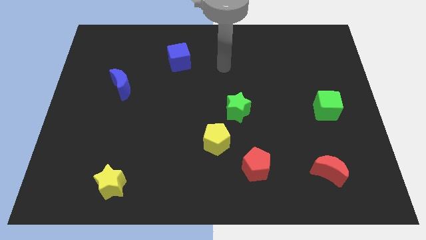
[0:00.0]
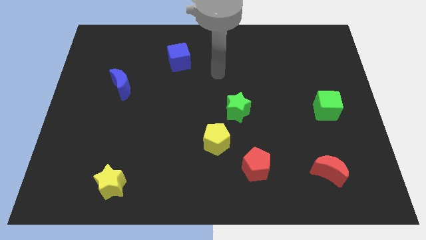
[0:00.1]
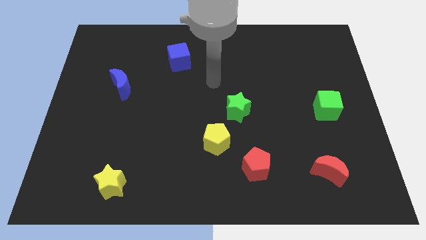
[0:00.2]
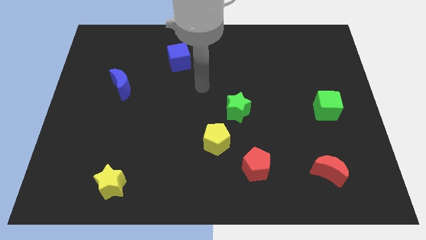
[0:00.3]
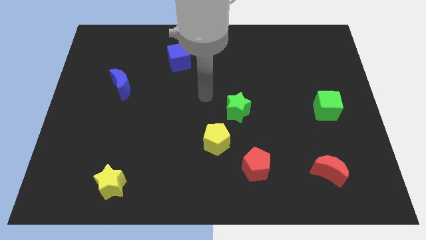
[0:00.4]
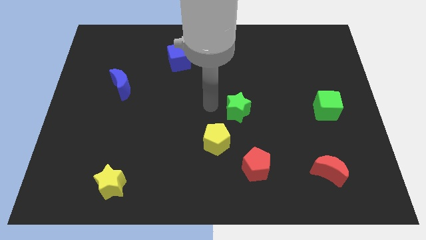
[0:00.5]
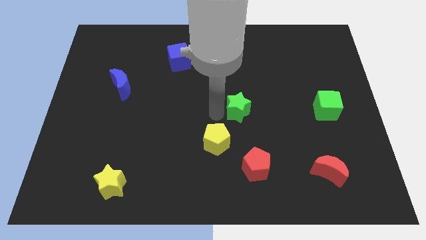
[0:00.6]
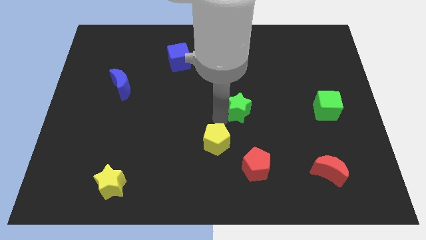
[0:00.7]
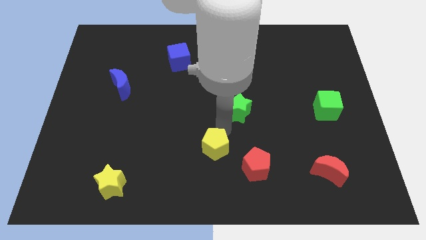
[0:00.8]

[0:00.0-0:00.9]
separate the green star from the yellow pentagon

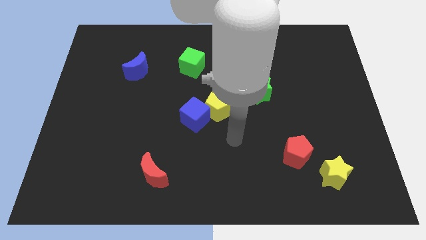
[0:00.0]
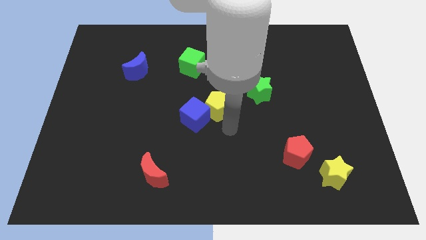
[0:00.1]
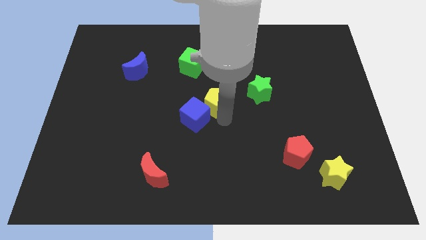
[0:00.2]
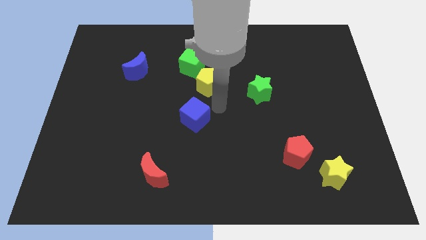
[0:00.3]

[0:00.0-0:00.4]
pull the blue cube apart from the yellow pentagon

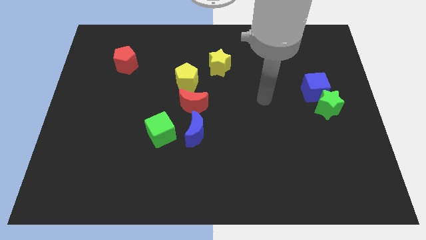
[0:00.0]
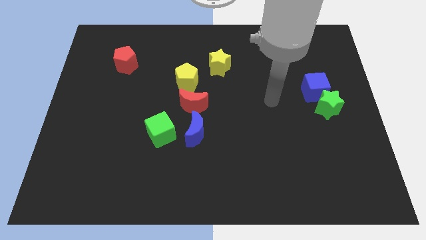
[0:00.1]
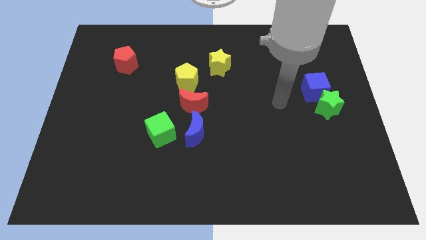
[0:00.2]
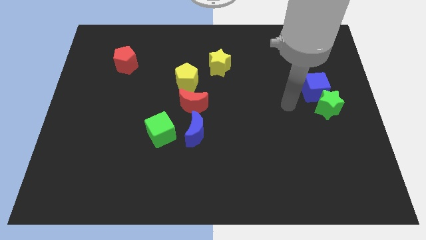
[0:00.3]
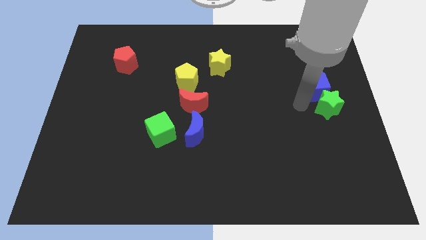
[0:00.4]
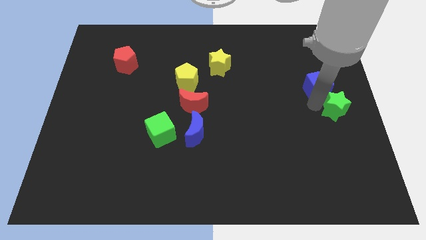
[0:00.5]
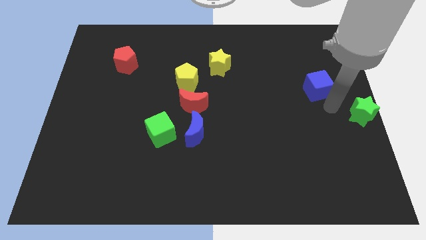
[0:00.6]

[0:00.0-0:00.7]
pull the blue cube apart from the green star

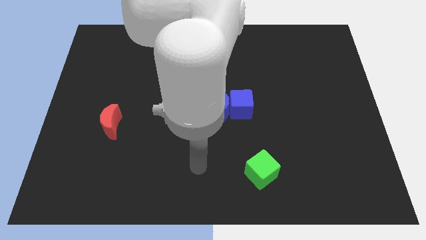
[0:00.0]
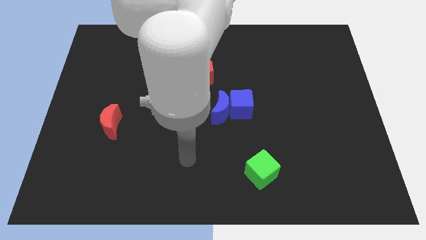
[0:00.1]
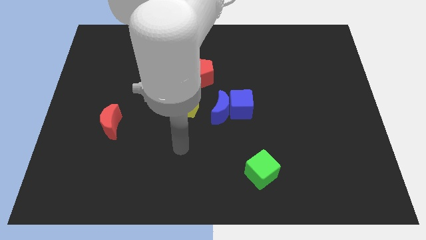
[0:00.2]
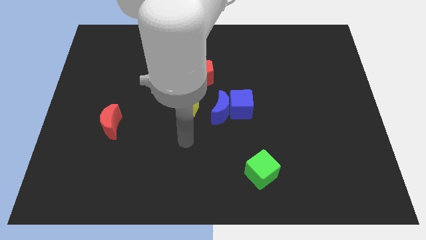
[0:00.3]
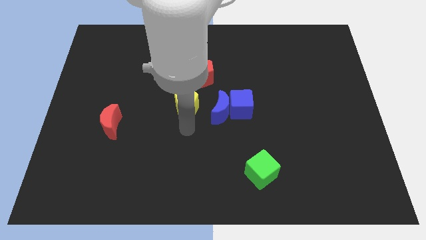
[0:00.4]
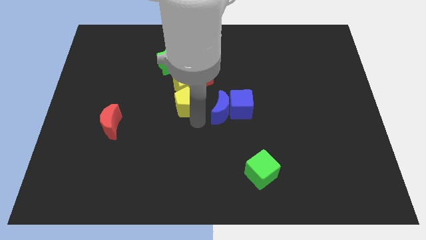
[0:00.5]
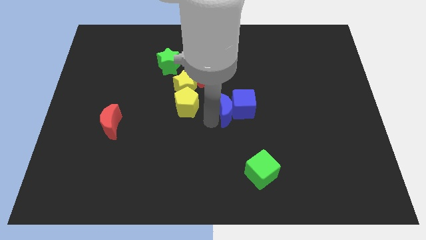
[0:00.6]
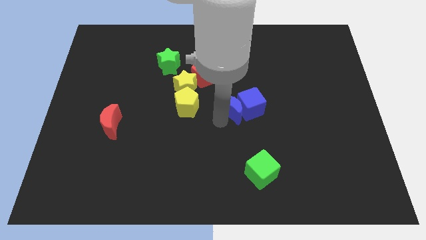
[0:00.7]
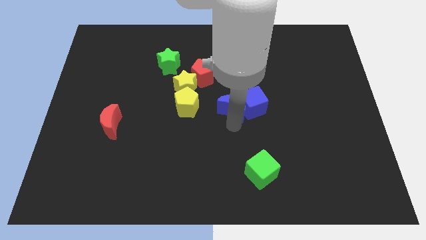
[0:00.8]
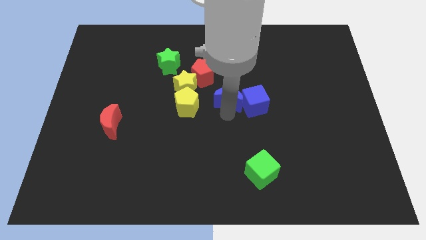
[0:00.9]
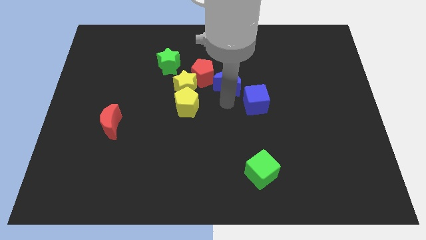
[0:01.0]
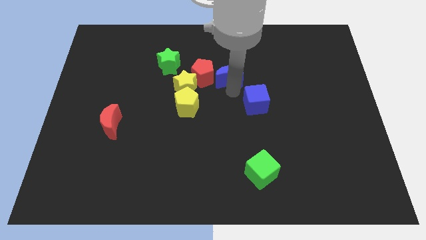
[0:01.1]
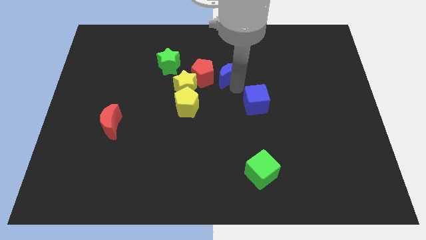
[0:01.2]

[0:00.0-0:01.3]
pull the blue cube apart from the blue moon

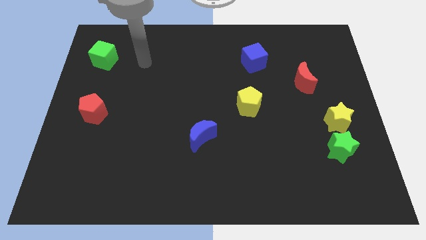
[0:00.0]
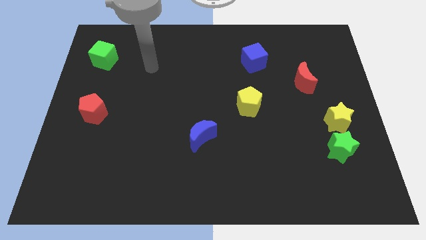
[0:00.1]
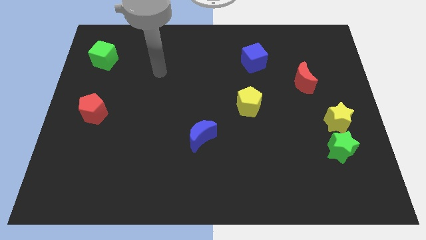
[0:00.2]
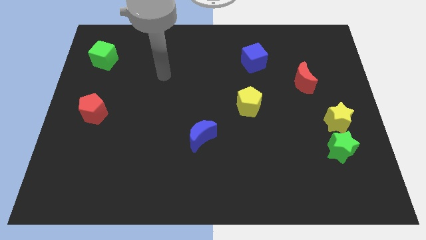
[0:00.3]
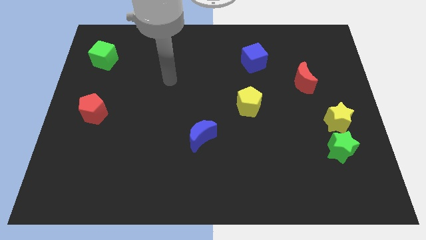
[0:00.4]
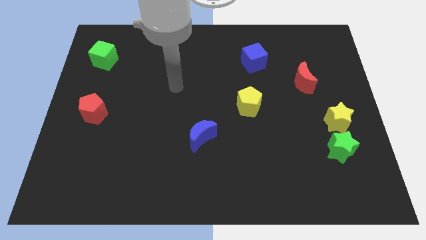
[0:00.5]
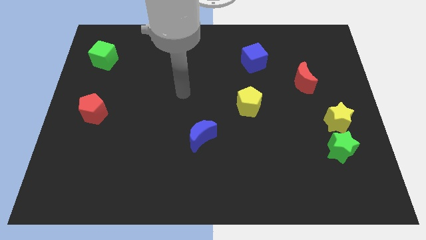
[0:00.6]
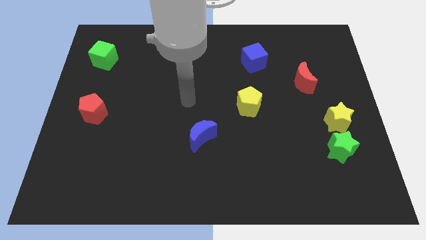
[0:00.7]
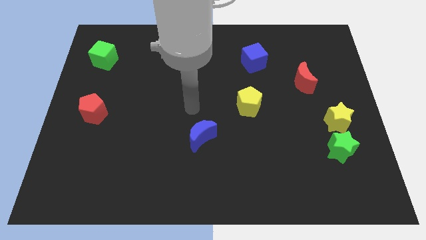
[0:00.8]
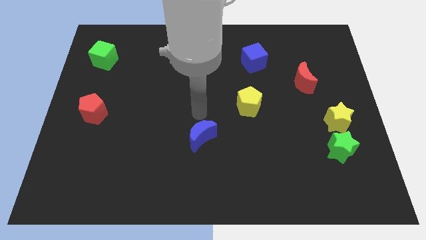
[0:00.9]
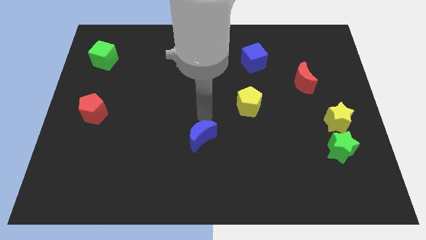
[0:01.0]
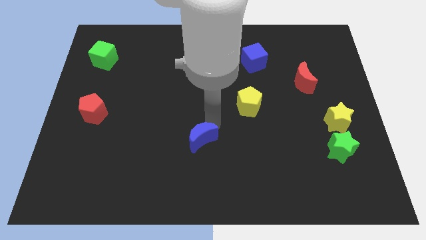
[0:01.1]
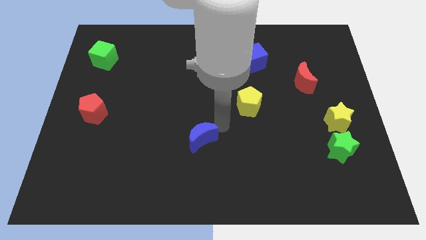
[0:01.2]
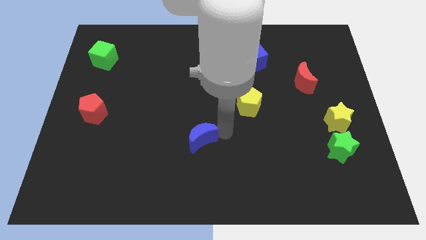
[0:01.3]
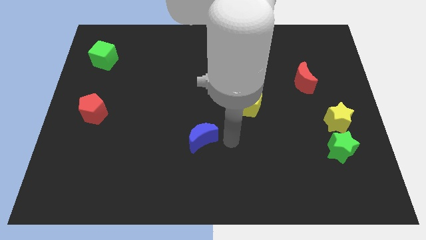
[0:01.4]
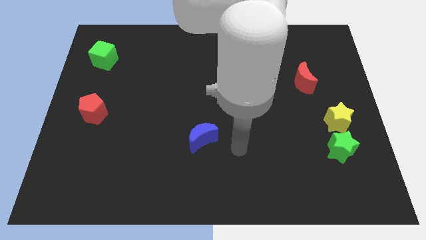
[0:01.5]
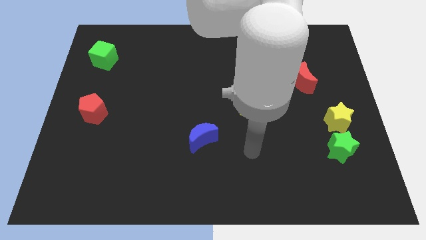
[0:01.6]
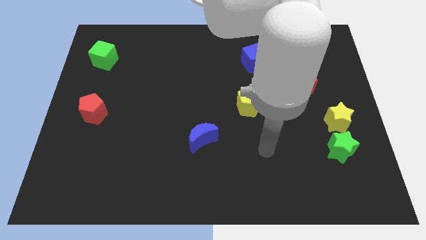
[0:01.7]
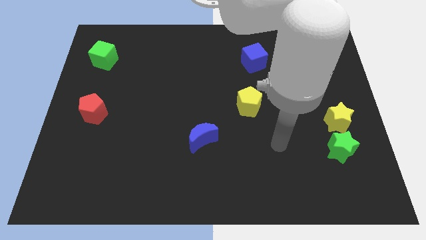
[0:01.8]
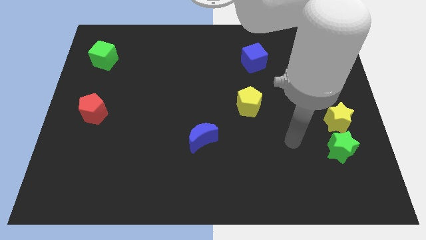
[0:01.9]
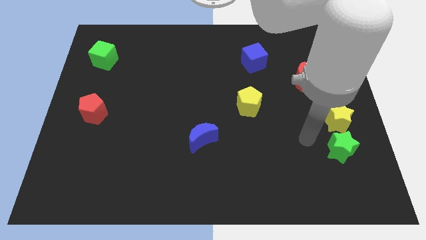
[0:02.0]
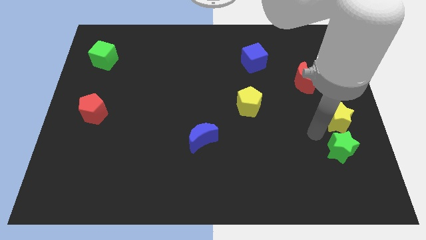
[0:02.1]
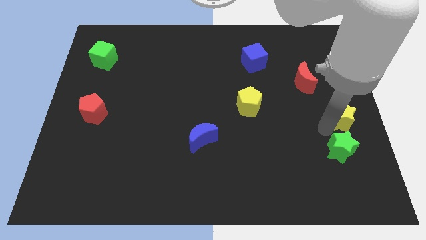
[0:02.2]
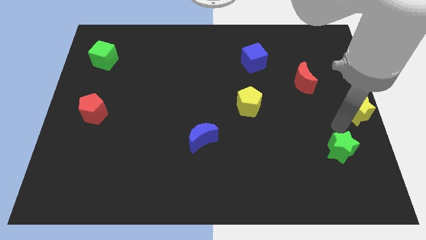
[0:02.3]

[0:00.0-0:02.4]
separate the green star from the yellow star

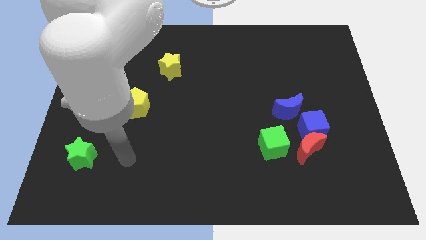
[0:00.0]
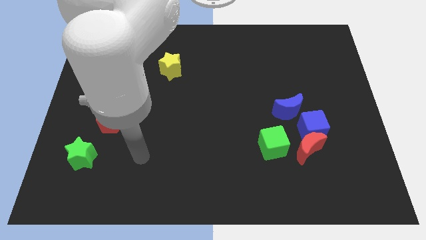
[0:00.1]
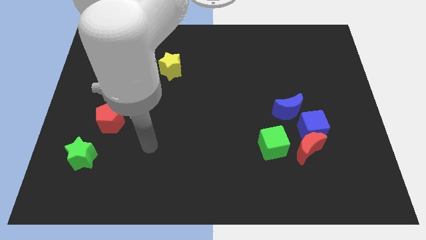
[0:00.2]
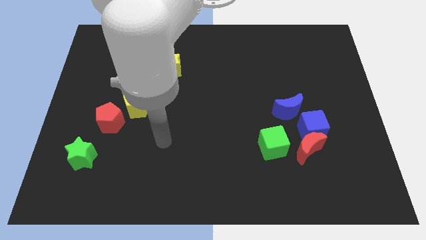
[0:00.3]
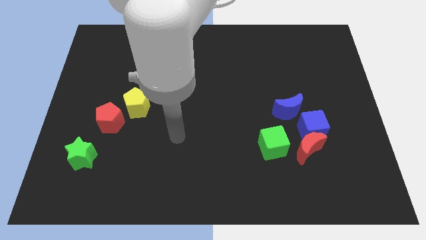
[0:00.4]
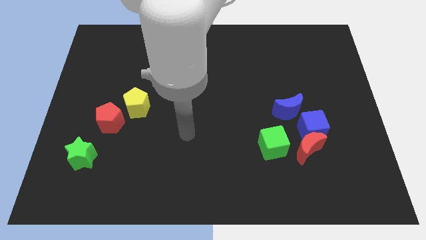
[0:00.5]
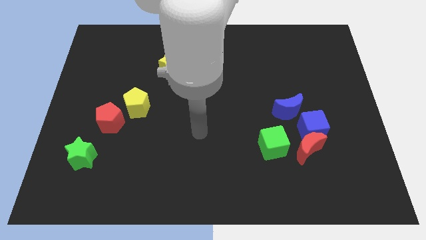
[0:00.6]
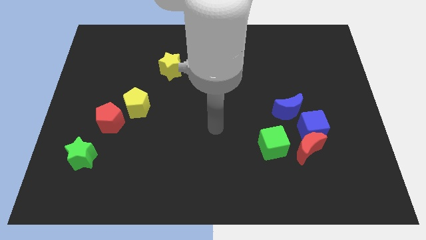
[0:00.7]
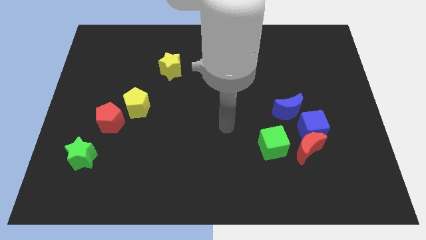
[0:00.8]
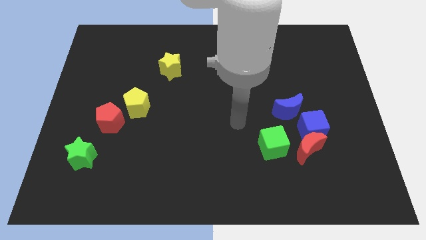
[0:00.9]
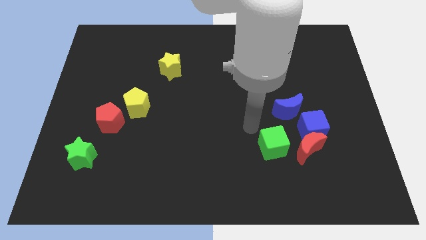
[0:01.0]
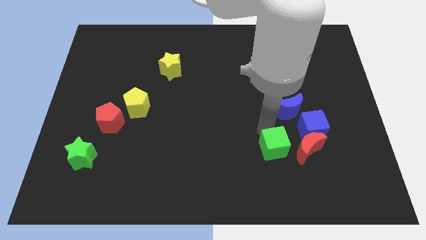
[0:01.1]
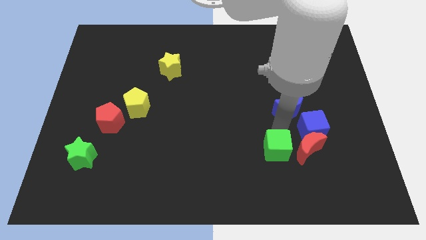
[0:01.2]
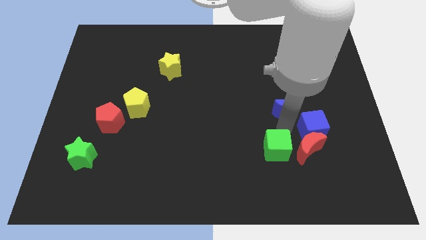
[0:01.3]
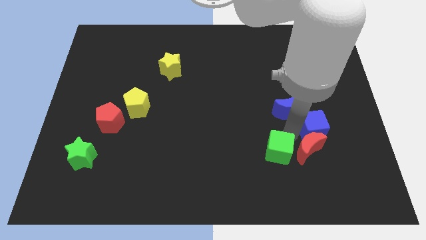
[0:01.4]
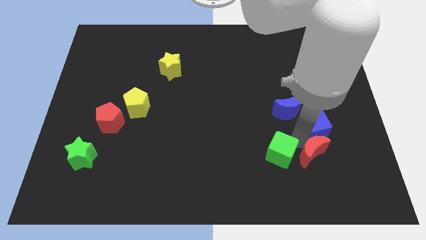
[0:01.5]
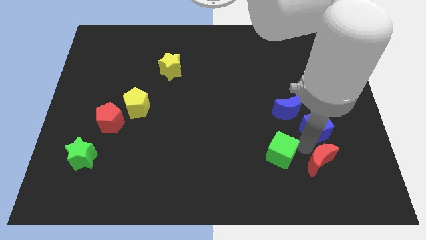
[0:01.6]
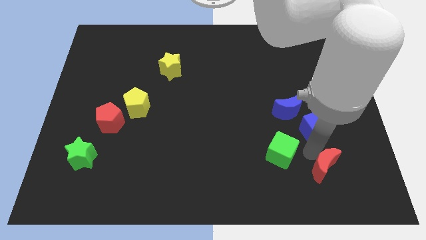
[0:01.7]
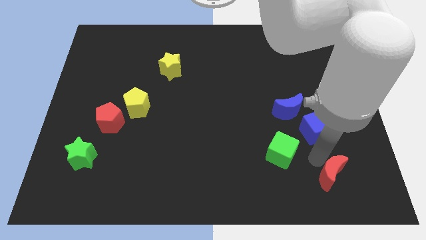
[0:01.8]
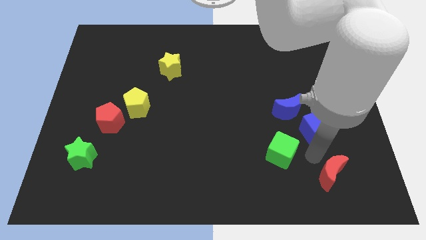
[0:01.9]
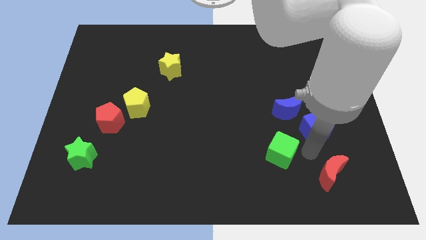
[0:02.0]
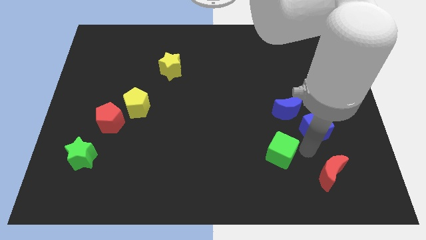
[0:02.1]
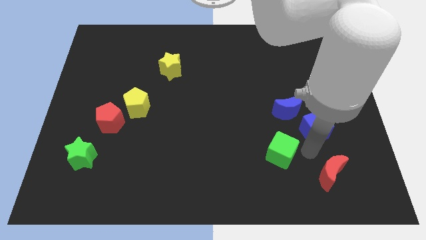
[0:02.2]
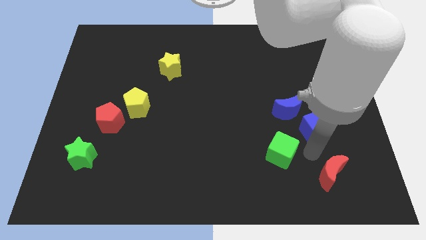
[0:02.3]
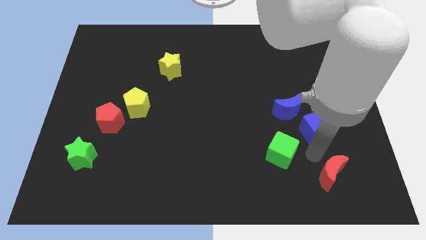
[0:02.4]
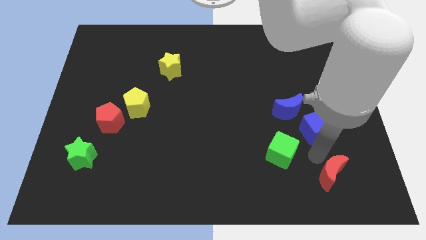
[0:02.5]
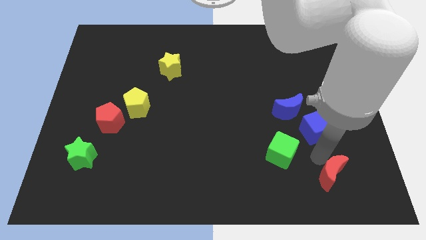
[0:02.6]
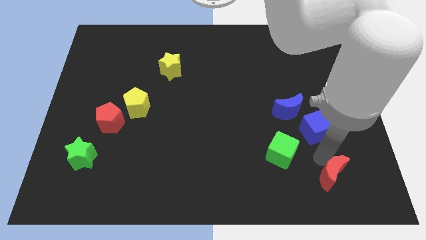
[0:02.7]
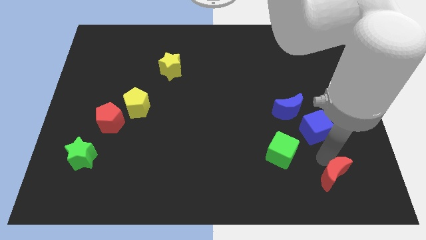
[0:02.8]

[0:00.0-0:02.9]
separate the red moon from the blue cube and green cube

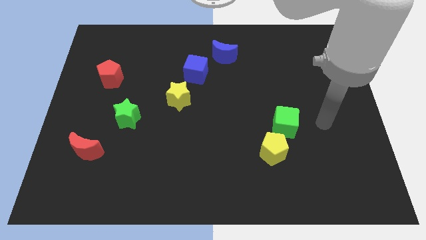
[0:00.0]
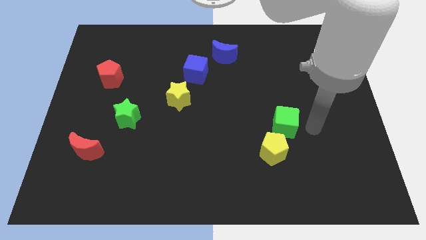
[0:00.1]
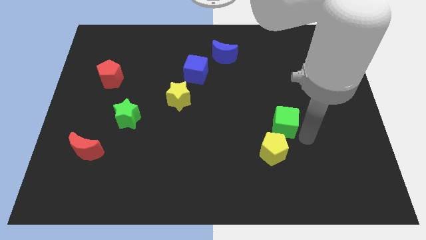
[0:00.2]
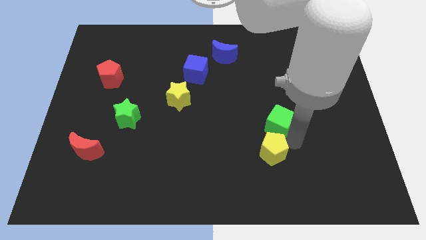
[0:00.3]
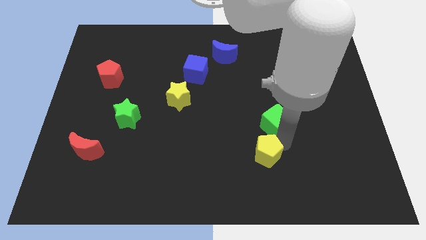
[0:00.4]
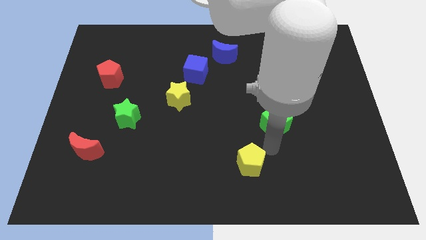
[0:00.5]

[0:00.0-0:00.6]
pull the green cube apart from the yellow pentagon

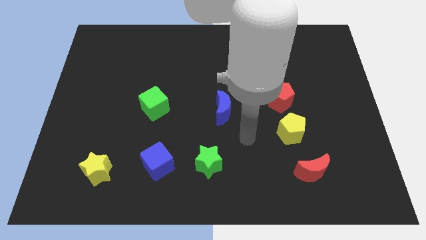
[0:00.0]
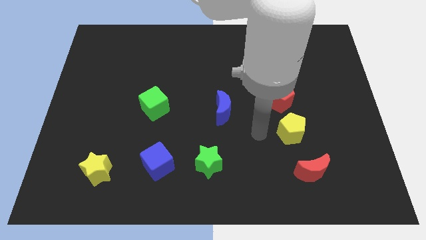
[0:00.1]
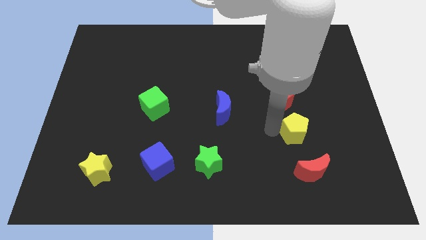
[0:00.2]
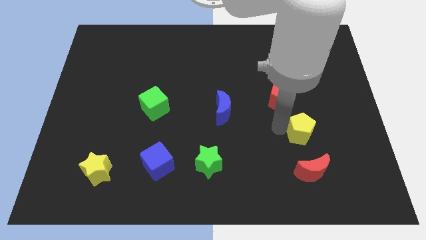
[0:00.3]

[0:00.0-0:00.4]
separate the red pentagon from the yellow pentagon
